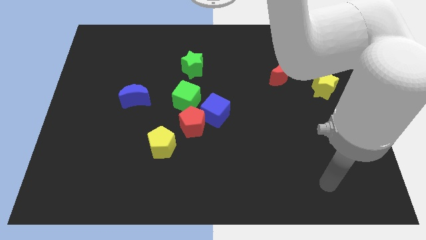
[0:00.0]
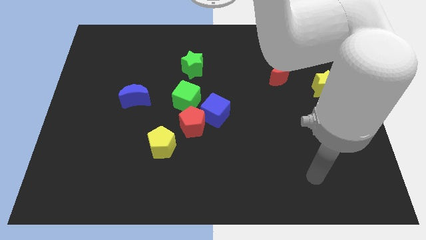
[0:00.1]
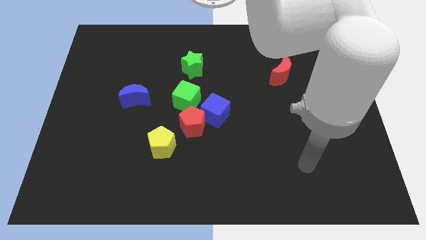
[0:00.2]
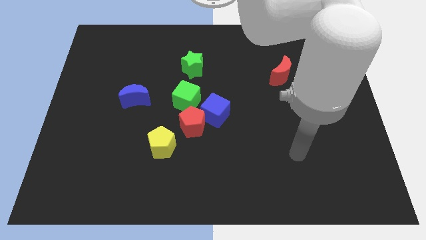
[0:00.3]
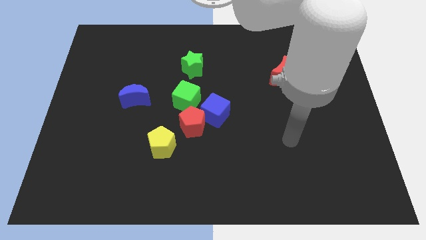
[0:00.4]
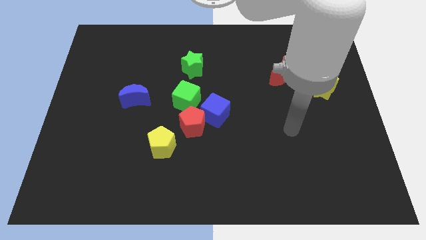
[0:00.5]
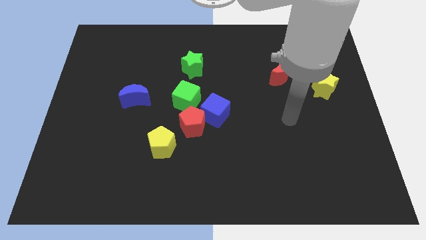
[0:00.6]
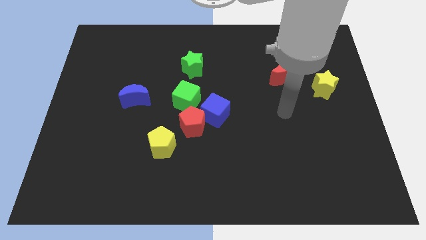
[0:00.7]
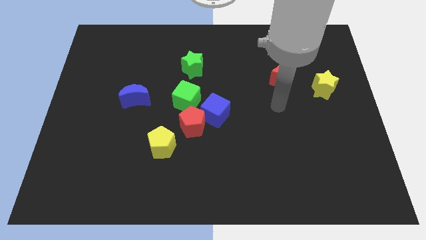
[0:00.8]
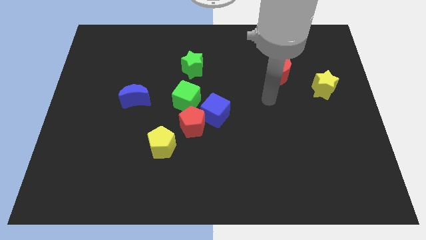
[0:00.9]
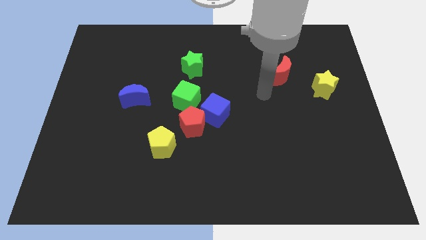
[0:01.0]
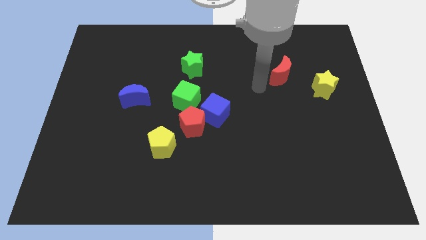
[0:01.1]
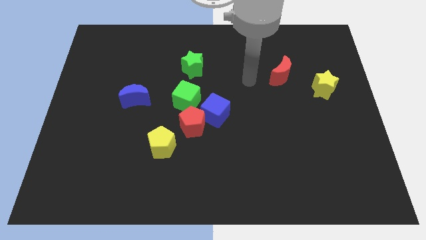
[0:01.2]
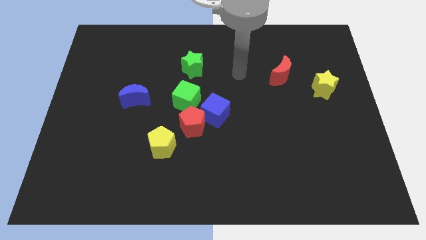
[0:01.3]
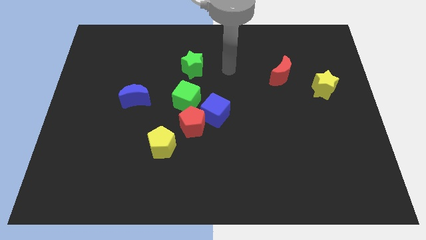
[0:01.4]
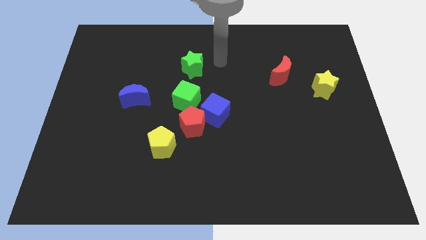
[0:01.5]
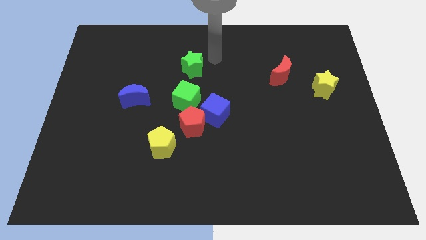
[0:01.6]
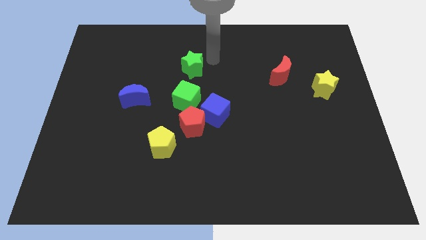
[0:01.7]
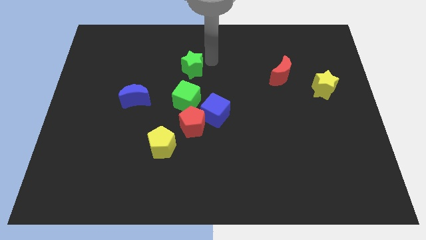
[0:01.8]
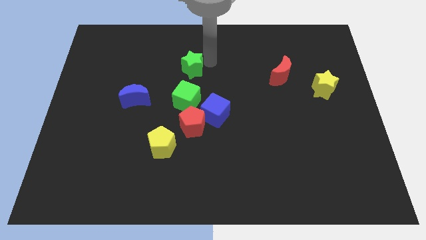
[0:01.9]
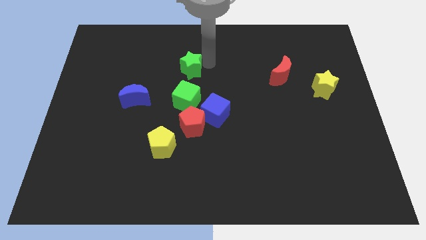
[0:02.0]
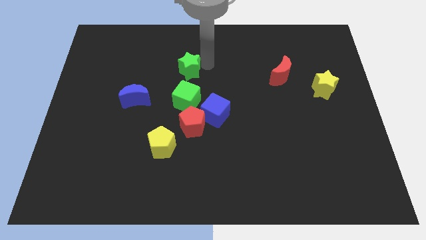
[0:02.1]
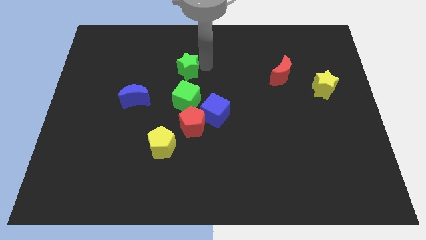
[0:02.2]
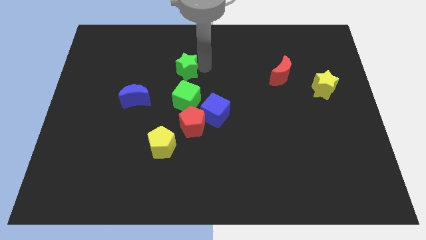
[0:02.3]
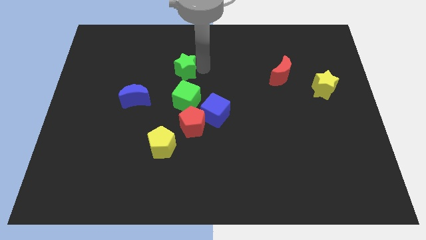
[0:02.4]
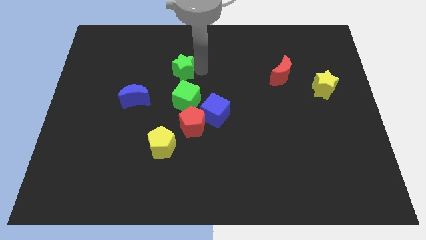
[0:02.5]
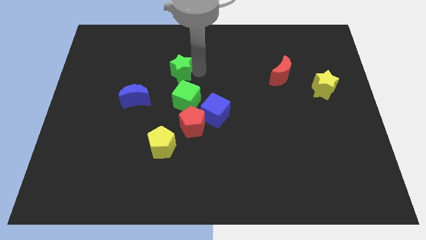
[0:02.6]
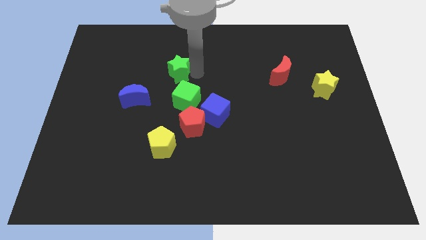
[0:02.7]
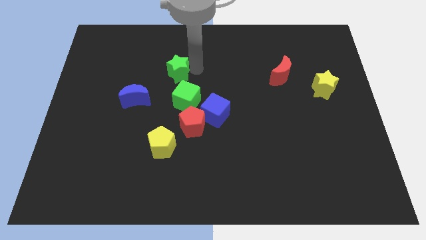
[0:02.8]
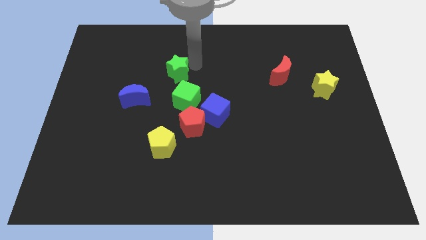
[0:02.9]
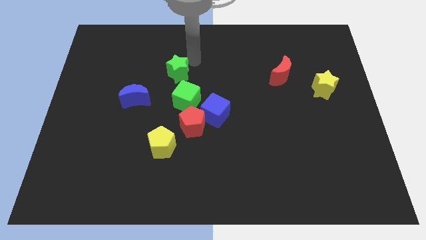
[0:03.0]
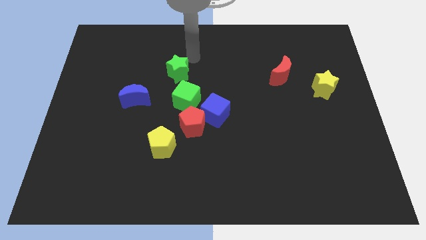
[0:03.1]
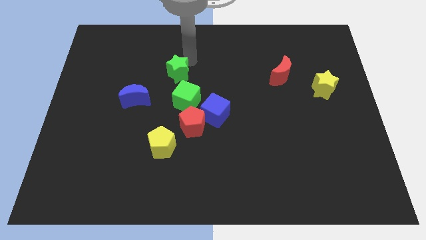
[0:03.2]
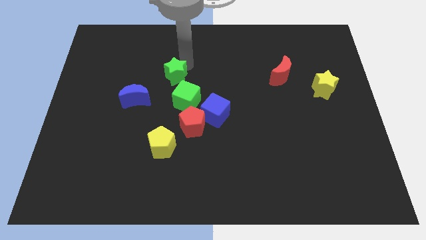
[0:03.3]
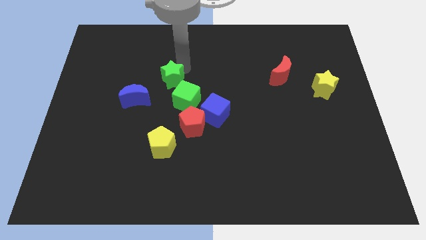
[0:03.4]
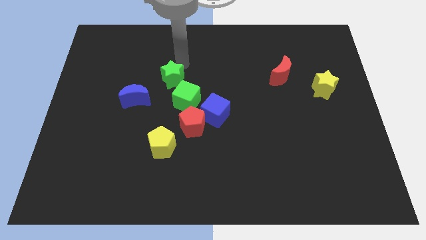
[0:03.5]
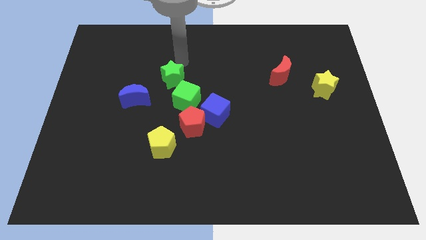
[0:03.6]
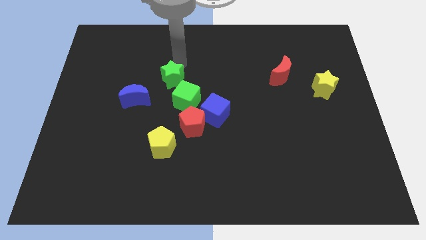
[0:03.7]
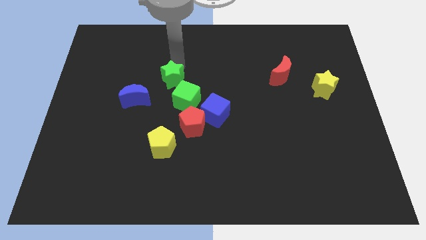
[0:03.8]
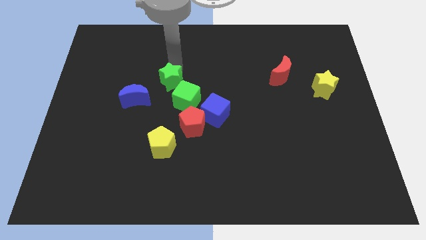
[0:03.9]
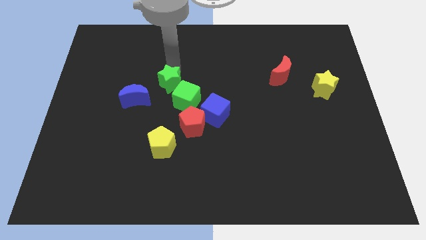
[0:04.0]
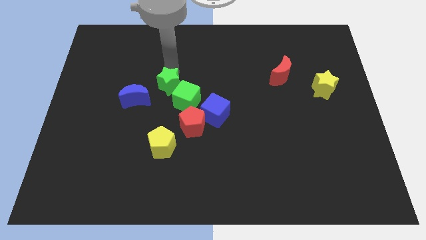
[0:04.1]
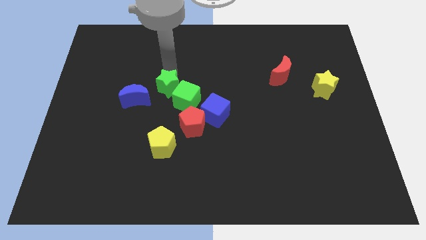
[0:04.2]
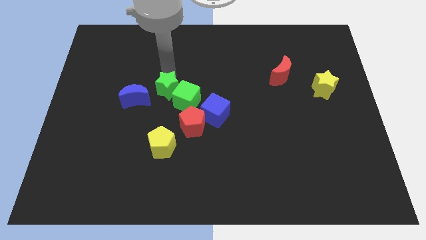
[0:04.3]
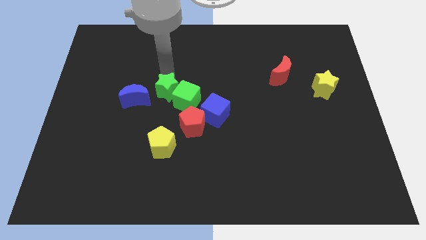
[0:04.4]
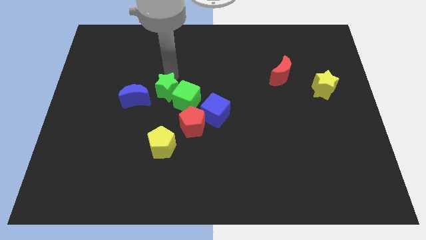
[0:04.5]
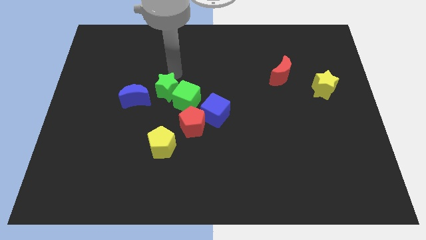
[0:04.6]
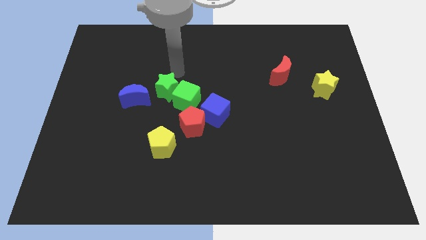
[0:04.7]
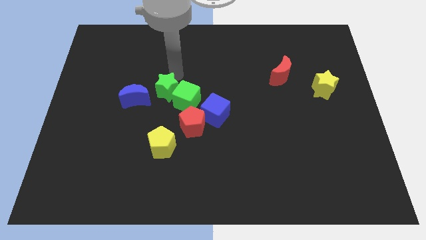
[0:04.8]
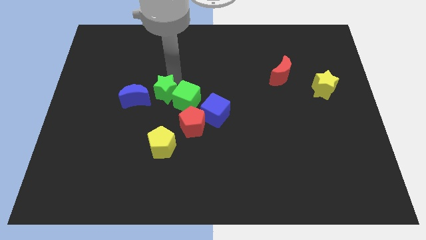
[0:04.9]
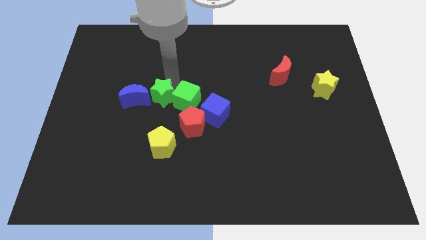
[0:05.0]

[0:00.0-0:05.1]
move the green star to the bottom left of the green cube

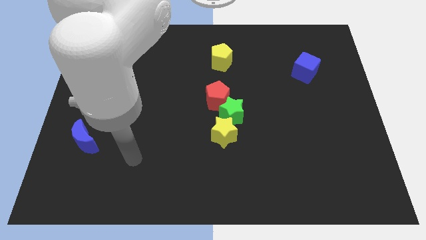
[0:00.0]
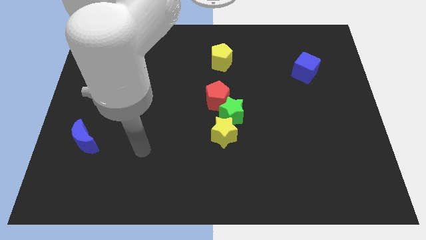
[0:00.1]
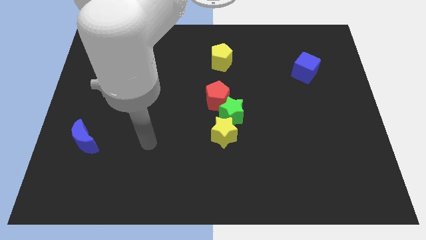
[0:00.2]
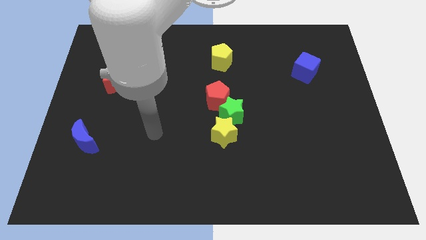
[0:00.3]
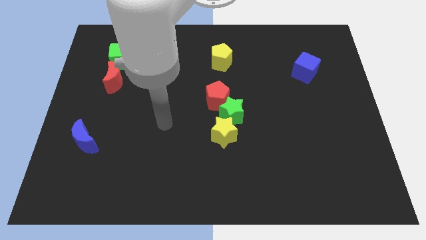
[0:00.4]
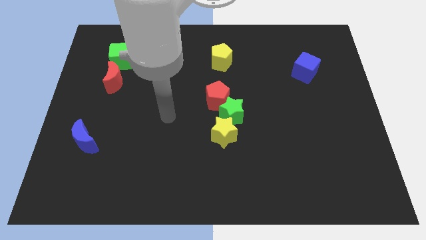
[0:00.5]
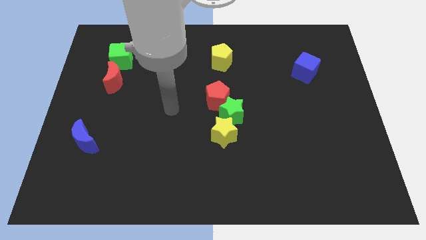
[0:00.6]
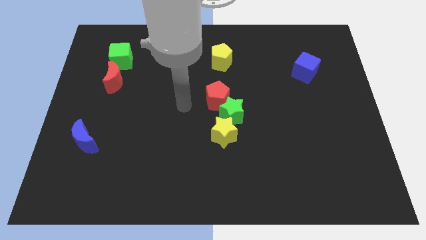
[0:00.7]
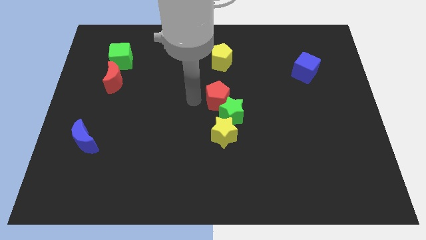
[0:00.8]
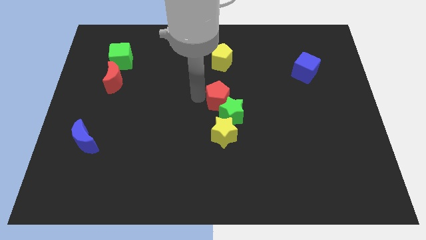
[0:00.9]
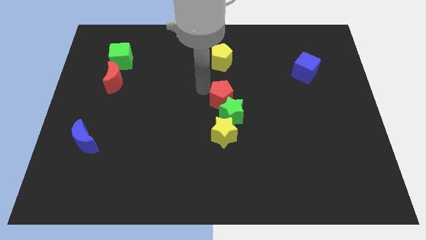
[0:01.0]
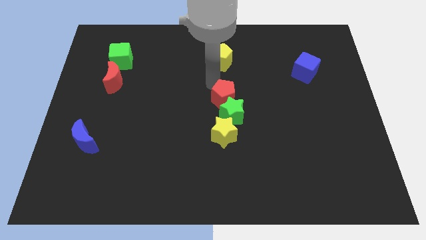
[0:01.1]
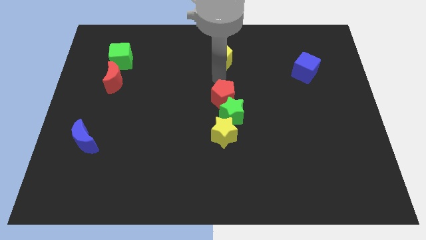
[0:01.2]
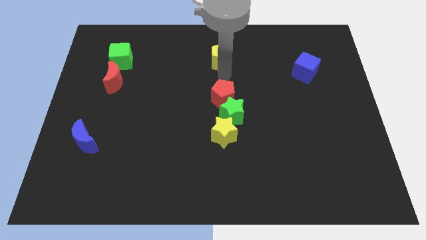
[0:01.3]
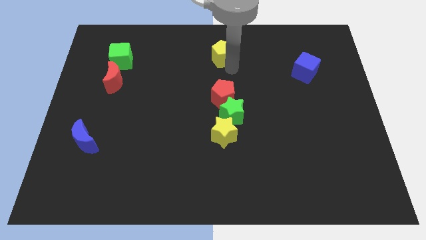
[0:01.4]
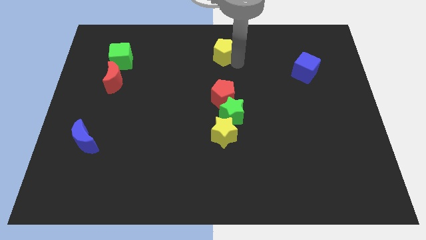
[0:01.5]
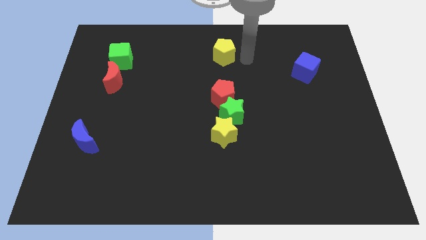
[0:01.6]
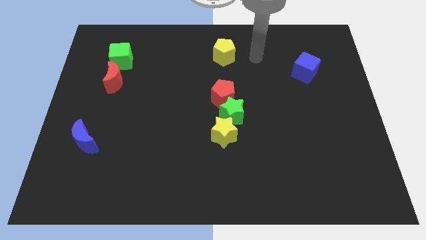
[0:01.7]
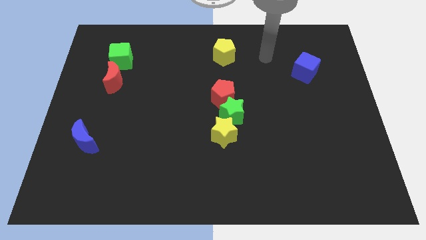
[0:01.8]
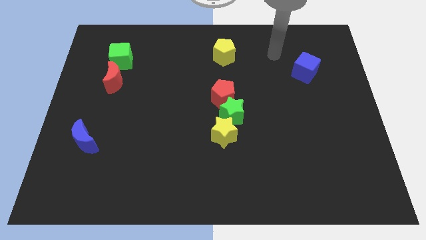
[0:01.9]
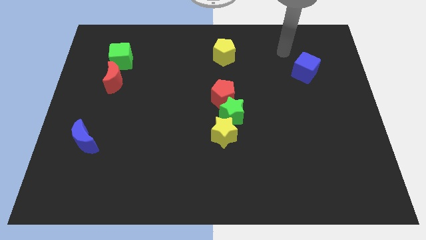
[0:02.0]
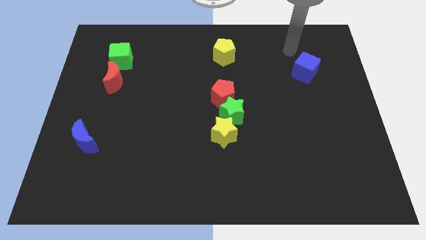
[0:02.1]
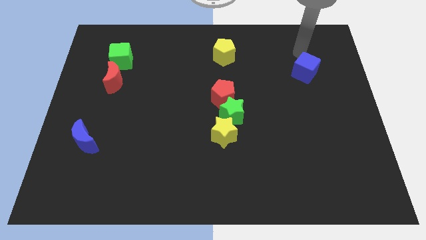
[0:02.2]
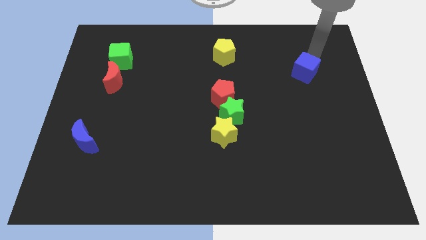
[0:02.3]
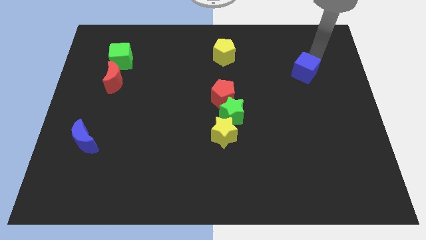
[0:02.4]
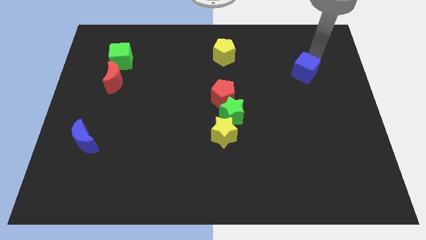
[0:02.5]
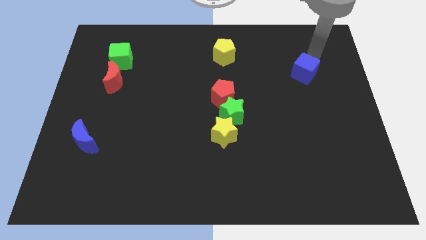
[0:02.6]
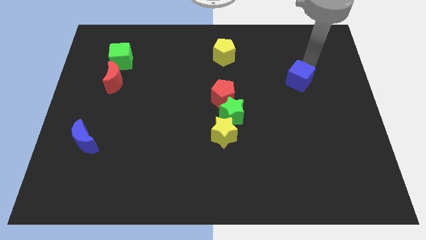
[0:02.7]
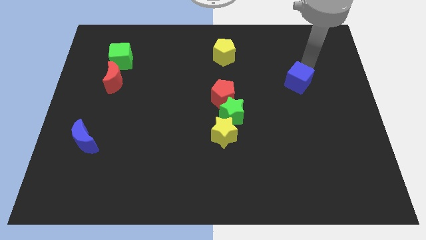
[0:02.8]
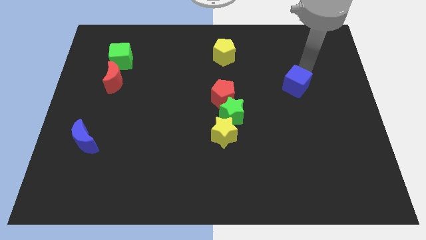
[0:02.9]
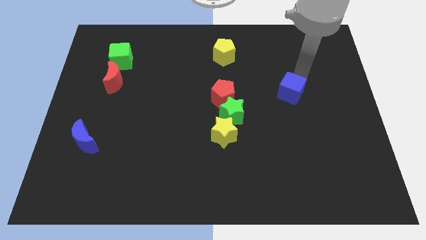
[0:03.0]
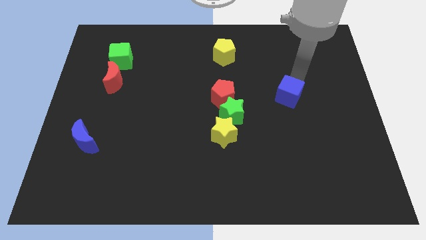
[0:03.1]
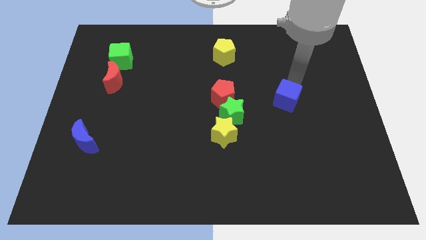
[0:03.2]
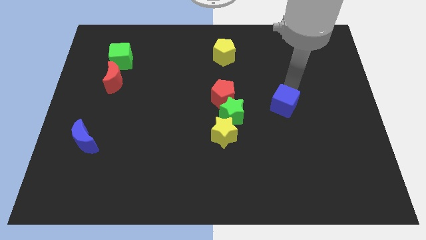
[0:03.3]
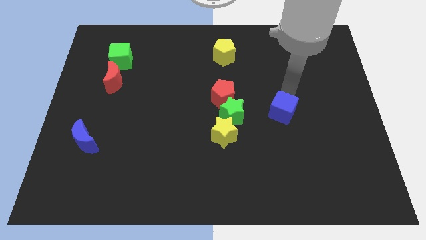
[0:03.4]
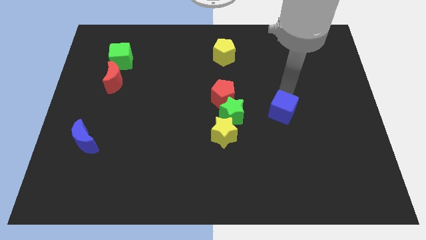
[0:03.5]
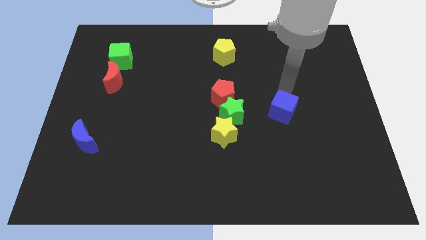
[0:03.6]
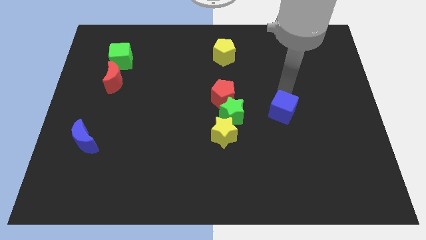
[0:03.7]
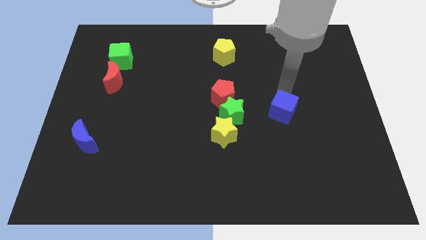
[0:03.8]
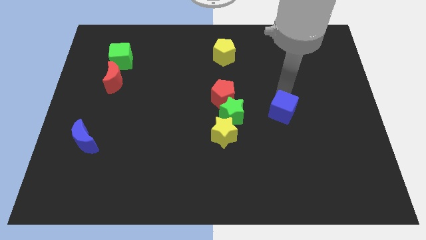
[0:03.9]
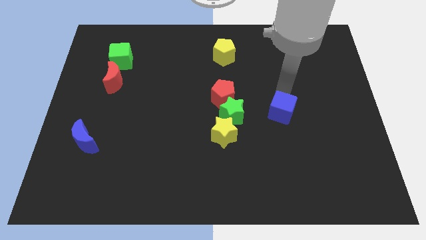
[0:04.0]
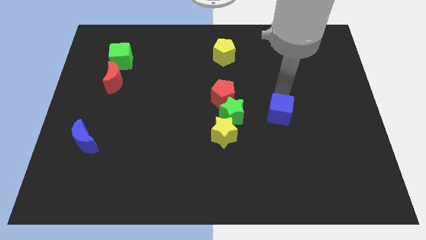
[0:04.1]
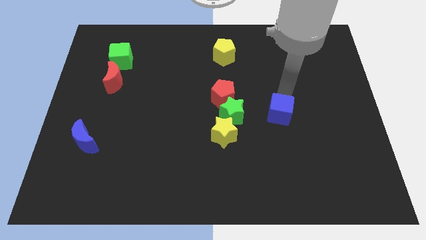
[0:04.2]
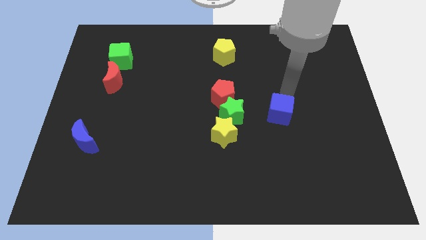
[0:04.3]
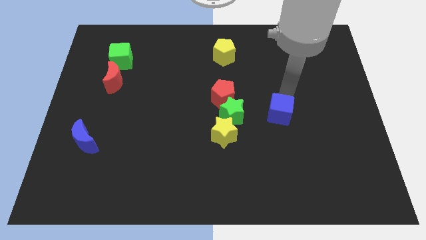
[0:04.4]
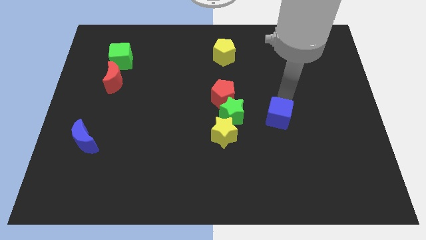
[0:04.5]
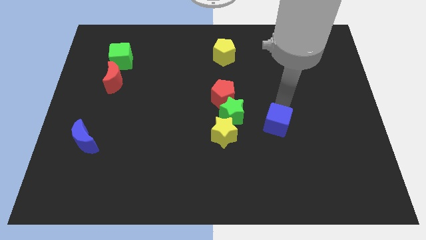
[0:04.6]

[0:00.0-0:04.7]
push the blue cube to the right of the yellow star
